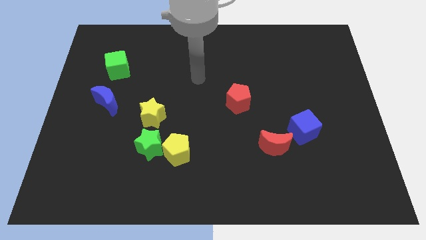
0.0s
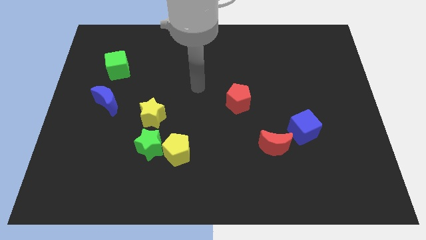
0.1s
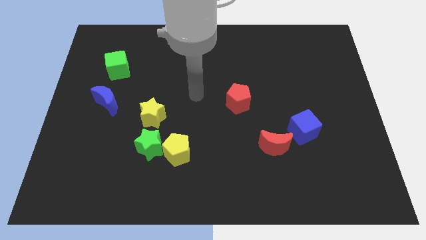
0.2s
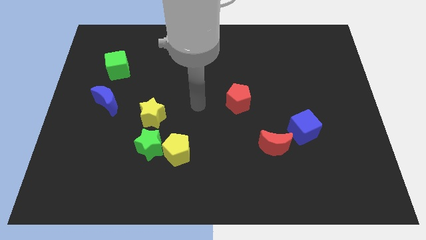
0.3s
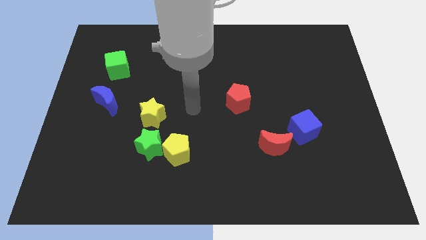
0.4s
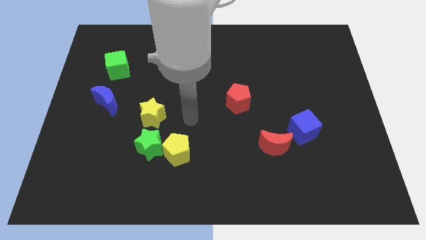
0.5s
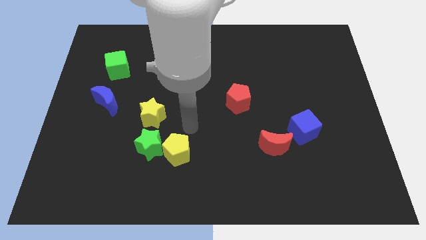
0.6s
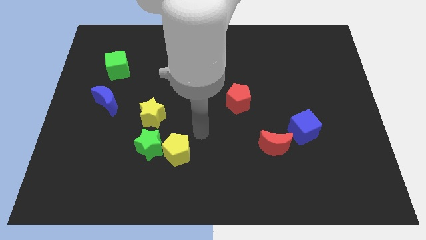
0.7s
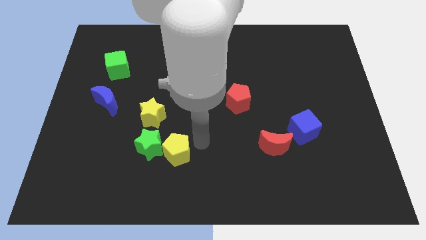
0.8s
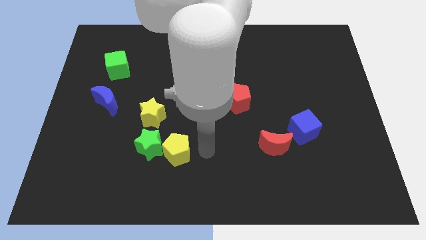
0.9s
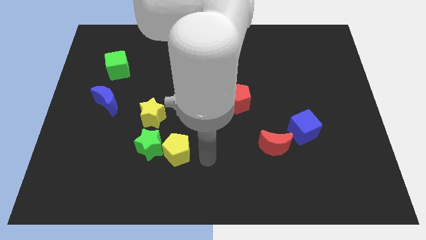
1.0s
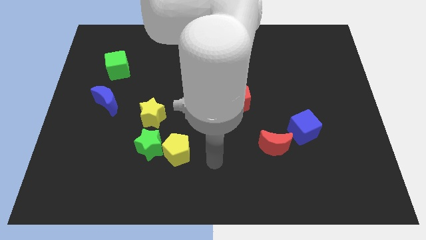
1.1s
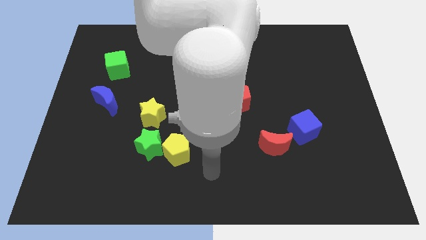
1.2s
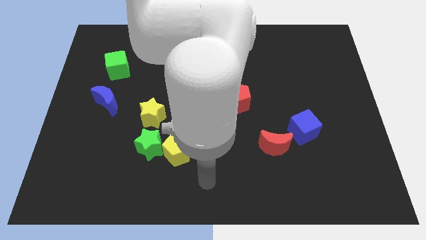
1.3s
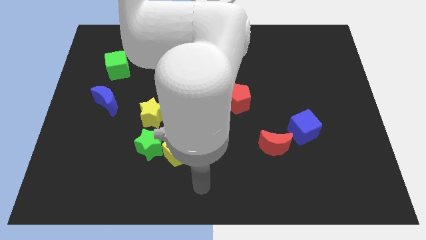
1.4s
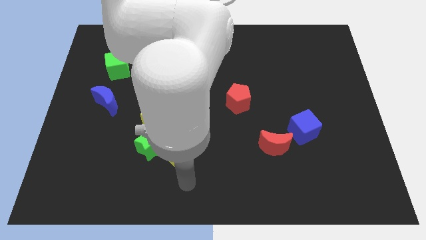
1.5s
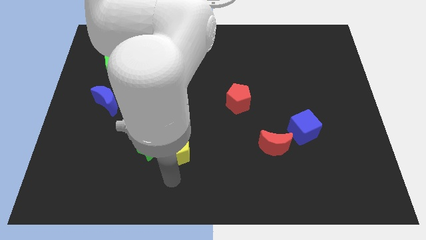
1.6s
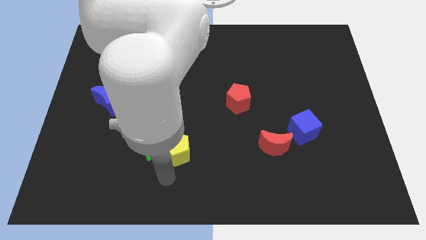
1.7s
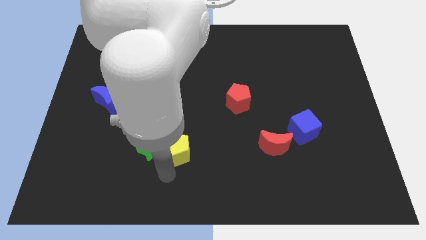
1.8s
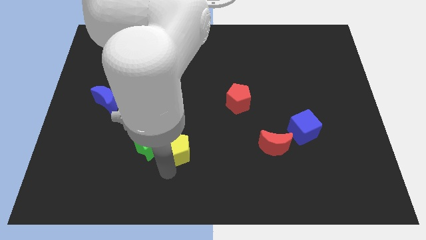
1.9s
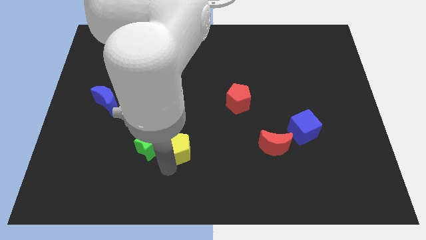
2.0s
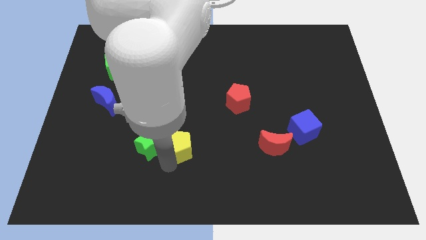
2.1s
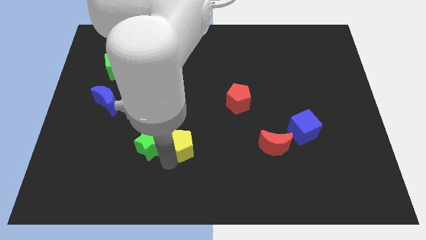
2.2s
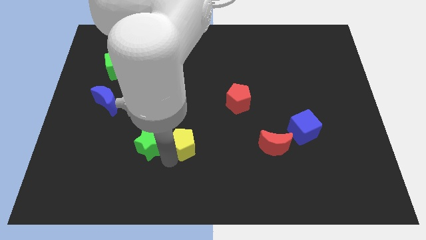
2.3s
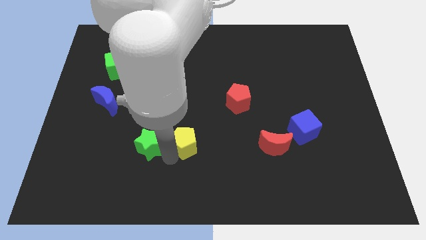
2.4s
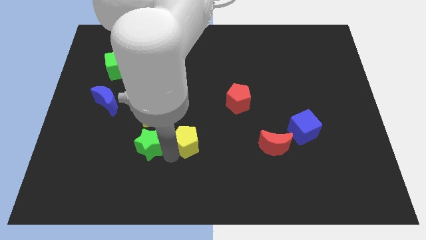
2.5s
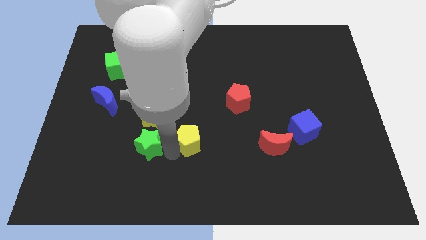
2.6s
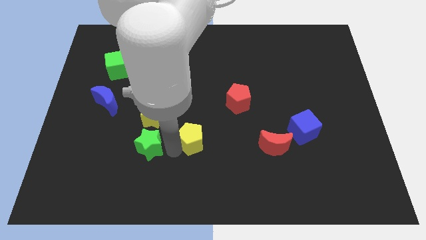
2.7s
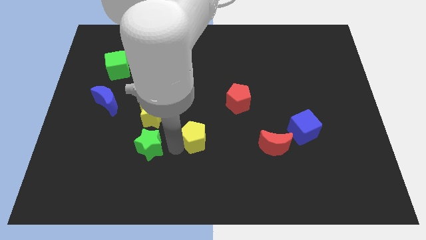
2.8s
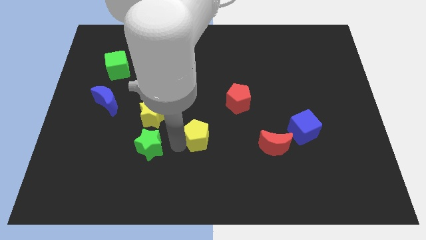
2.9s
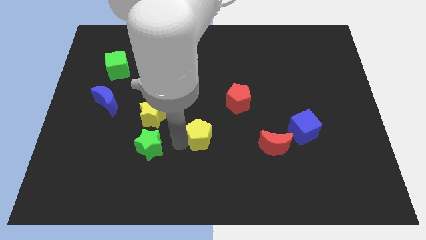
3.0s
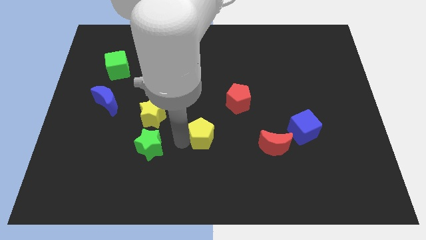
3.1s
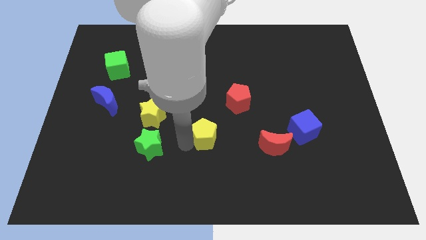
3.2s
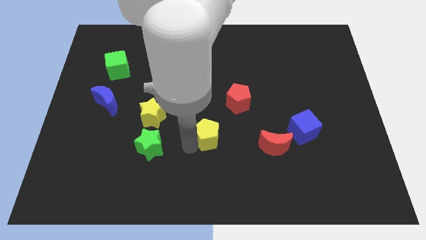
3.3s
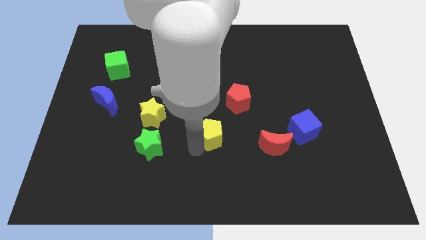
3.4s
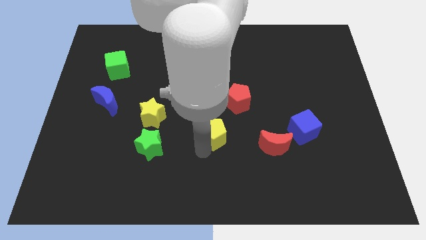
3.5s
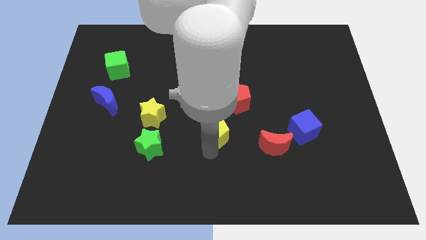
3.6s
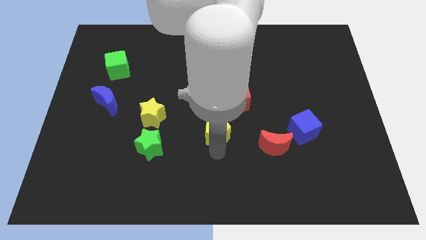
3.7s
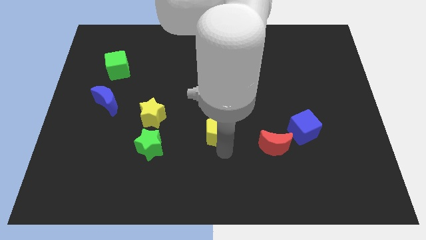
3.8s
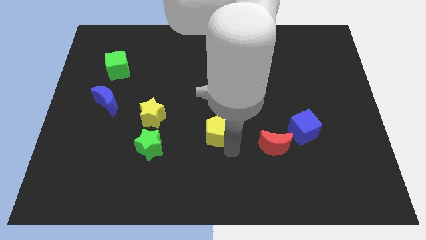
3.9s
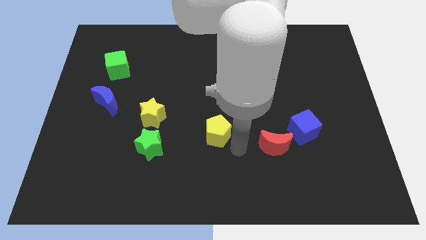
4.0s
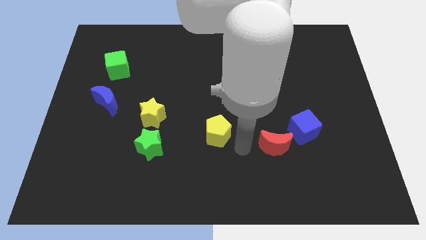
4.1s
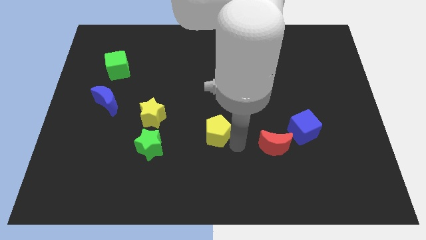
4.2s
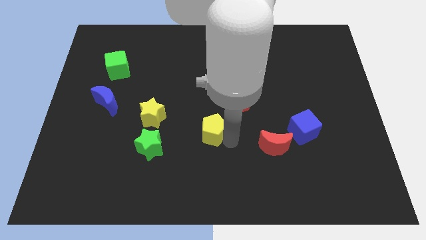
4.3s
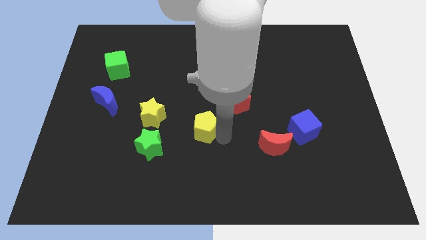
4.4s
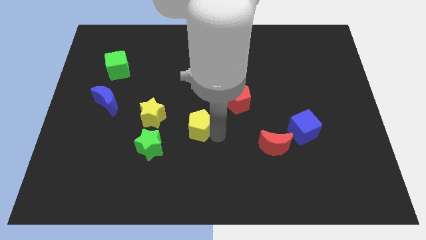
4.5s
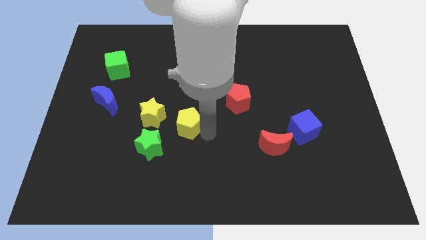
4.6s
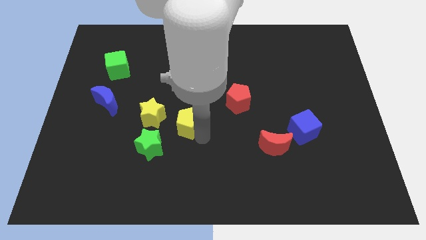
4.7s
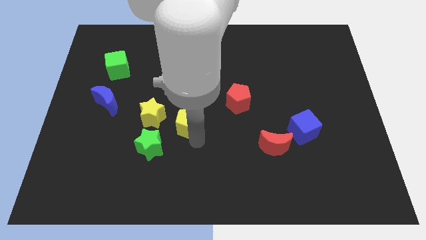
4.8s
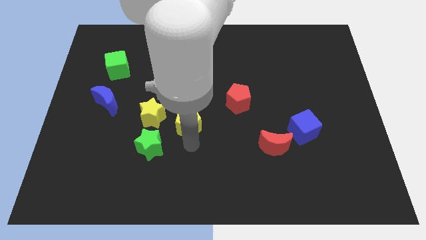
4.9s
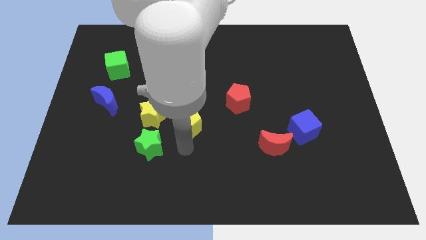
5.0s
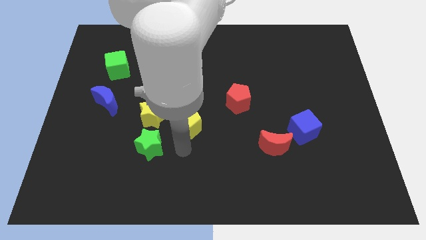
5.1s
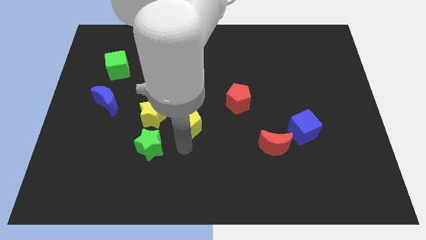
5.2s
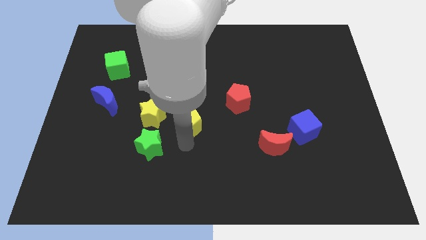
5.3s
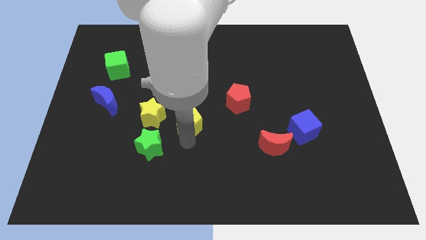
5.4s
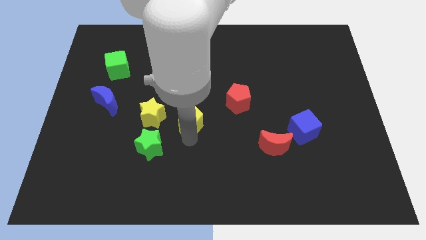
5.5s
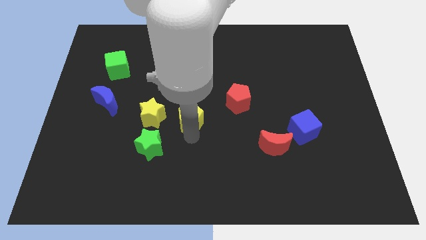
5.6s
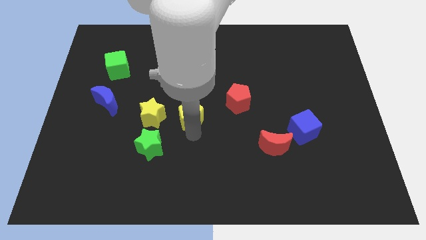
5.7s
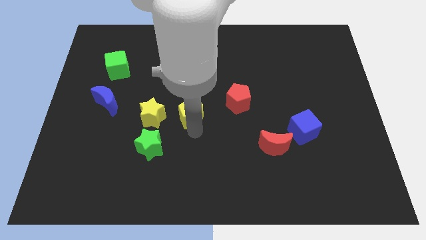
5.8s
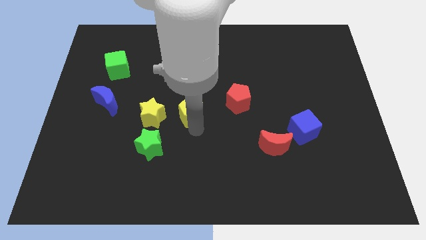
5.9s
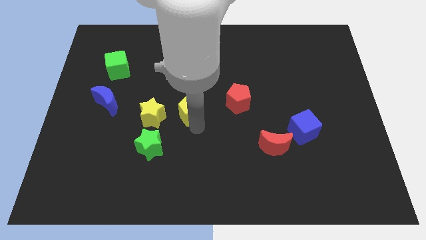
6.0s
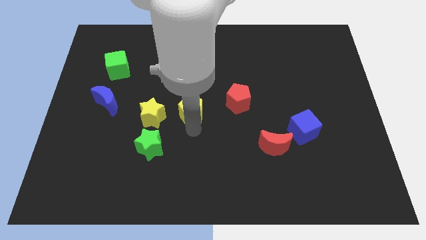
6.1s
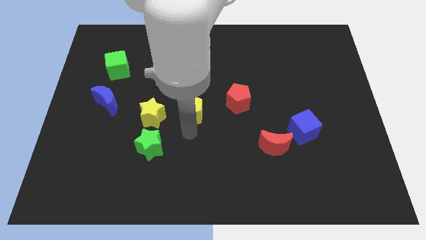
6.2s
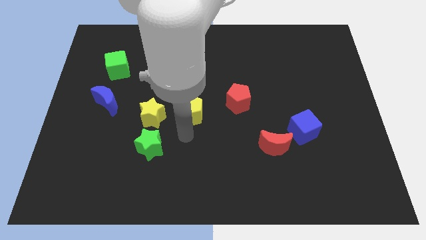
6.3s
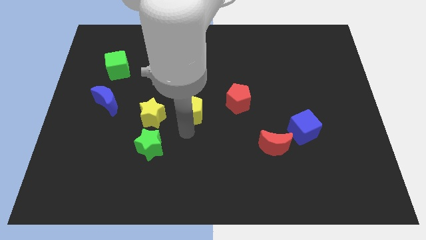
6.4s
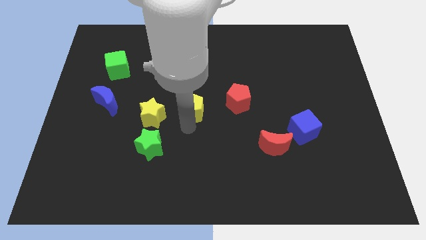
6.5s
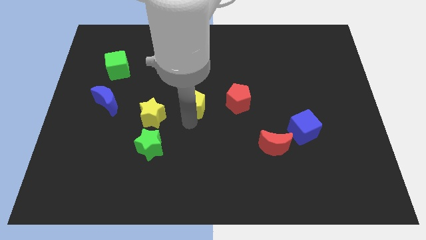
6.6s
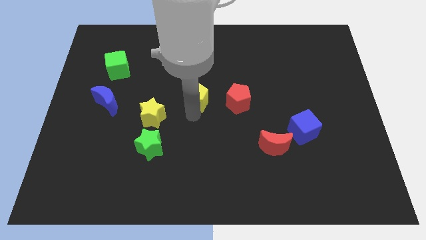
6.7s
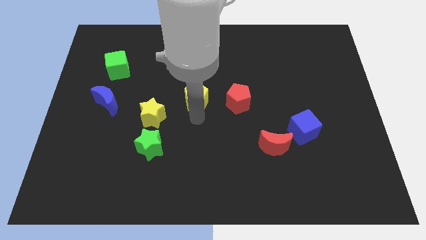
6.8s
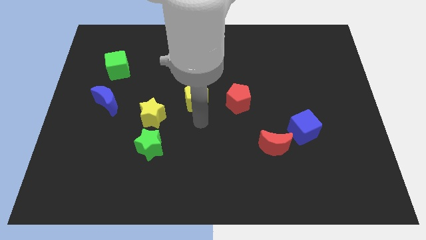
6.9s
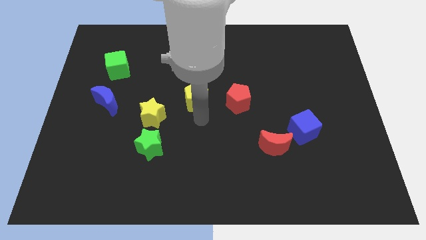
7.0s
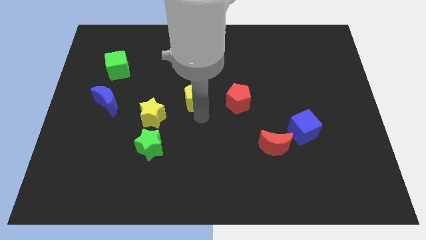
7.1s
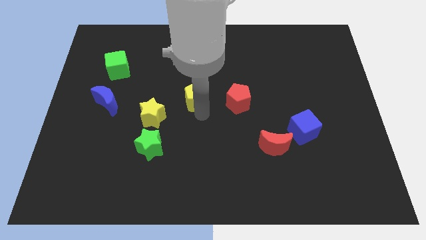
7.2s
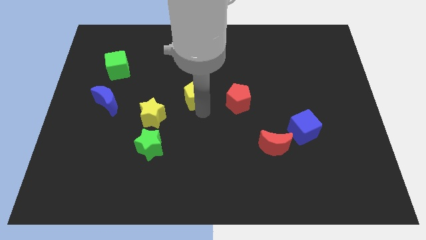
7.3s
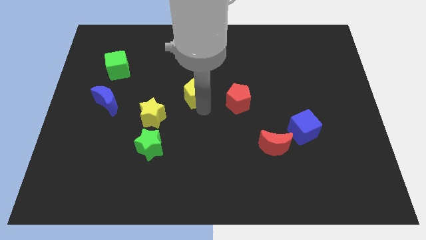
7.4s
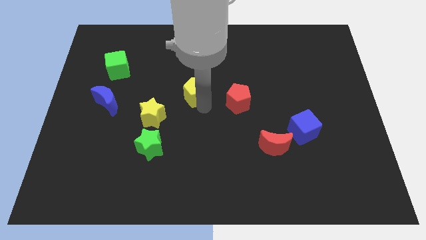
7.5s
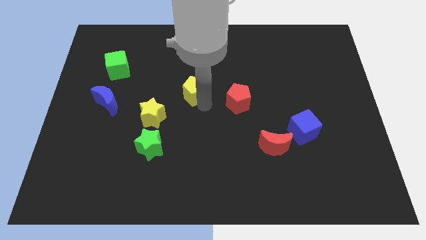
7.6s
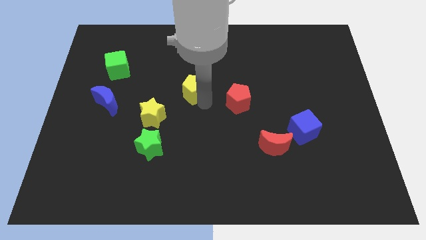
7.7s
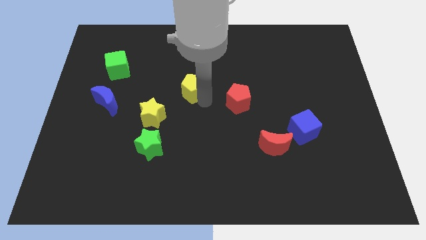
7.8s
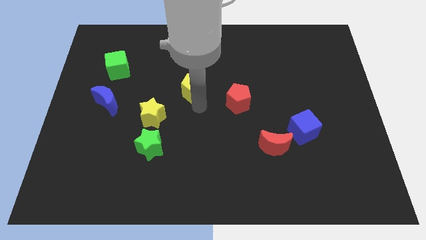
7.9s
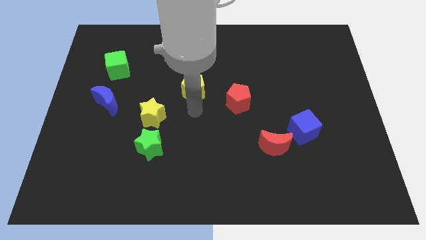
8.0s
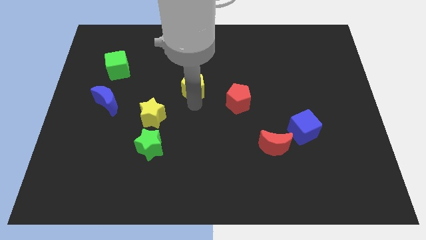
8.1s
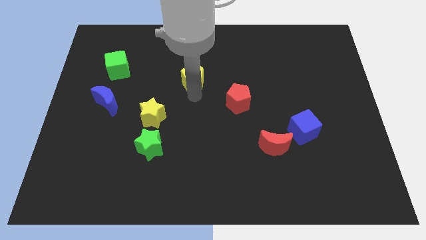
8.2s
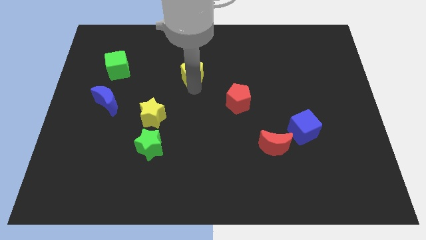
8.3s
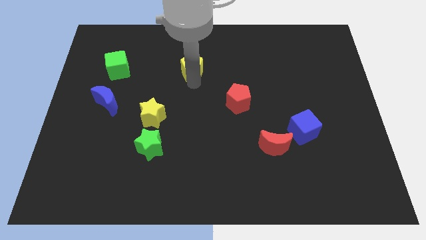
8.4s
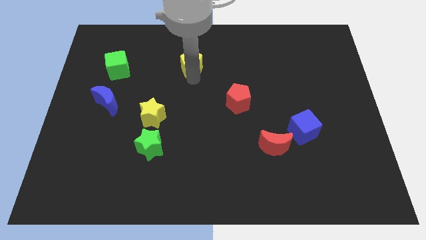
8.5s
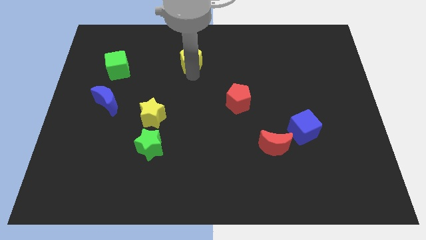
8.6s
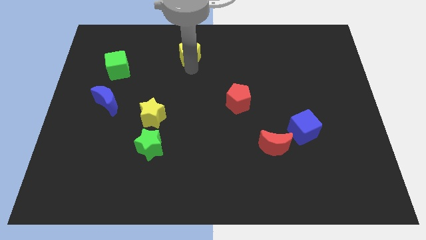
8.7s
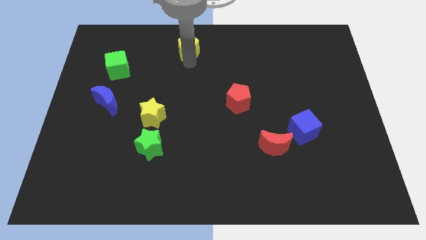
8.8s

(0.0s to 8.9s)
push the yellow pentagon to the top
